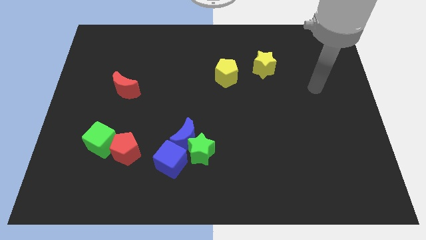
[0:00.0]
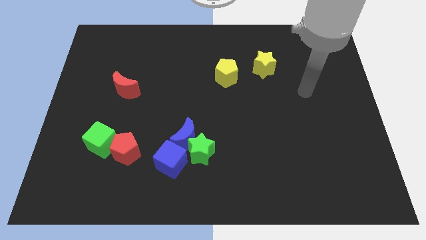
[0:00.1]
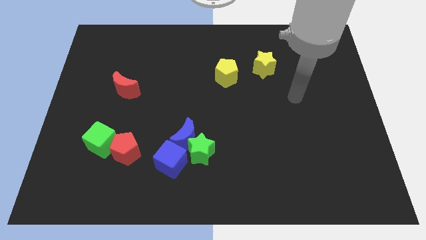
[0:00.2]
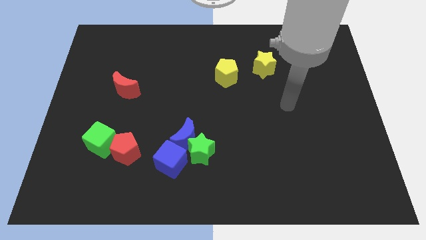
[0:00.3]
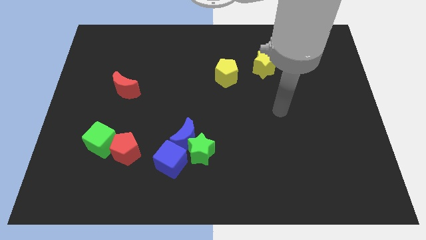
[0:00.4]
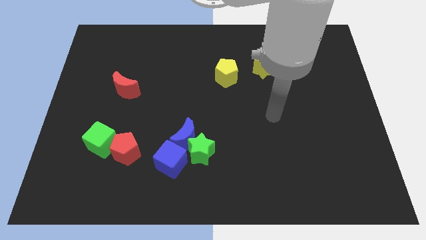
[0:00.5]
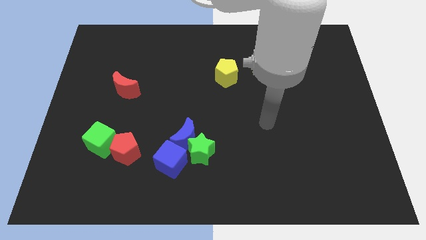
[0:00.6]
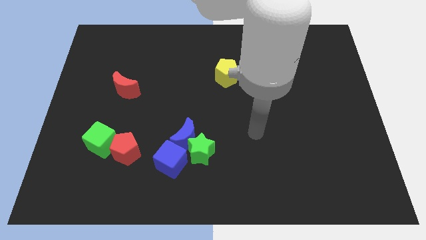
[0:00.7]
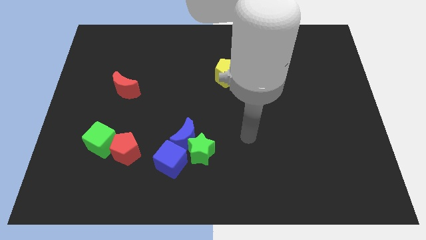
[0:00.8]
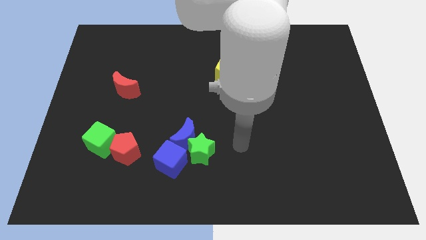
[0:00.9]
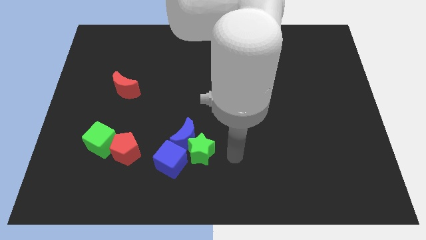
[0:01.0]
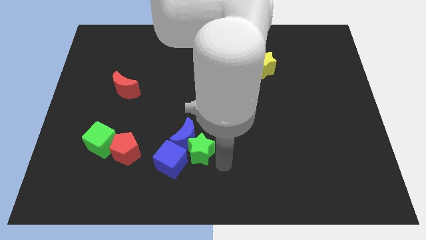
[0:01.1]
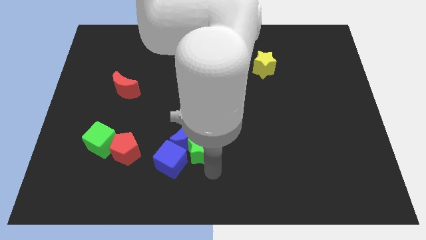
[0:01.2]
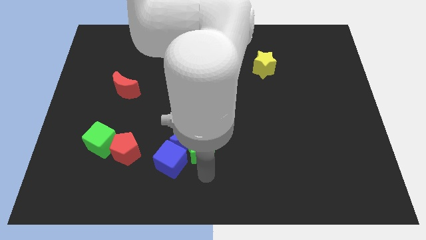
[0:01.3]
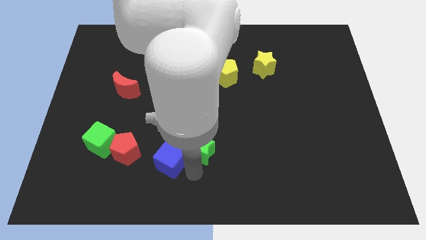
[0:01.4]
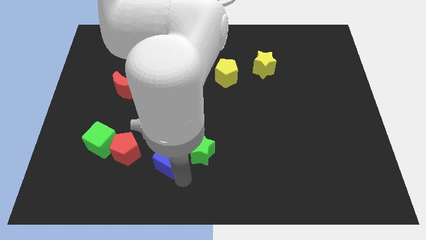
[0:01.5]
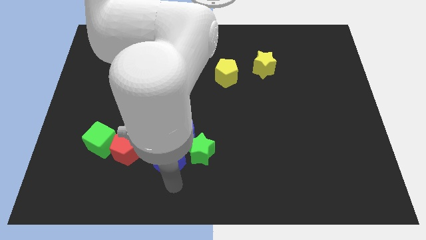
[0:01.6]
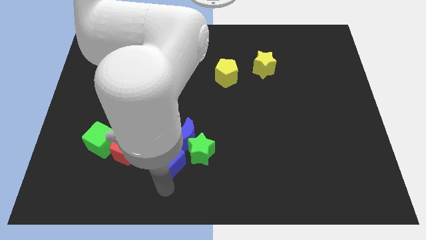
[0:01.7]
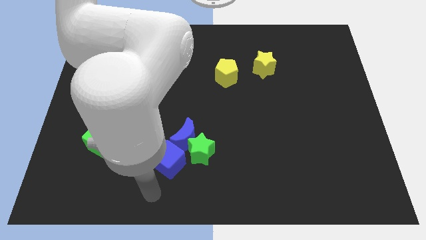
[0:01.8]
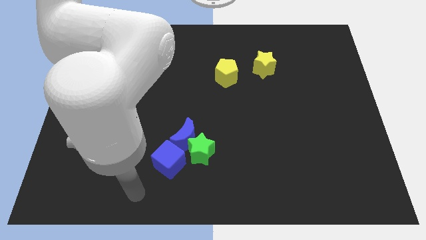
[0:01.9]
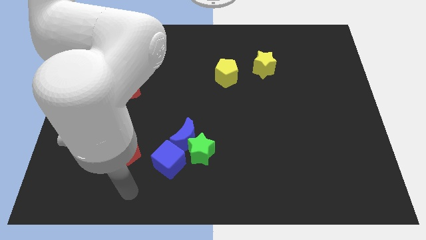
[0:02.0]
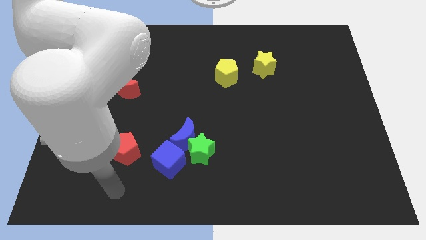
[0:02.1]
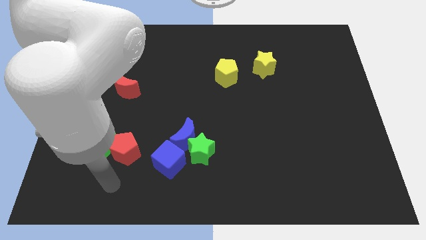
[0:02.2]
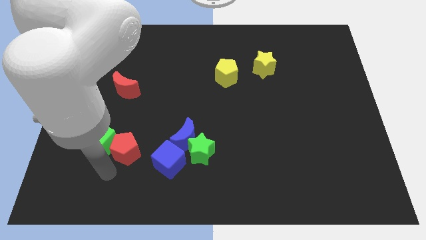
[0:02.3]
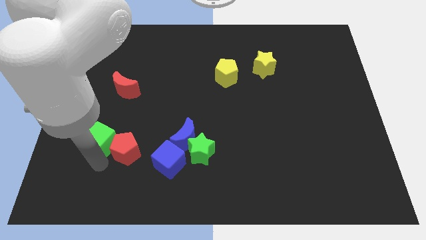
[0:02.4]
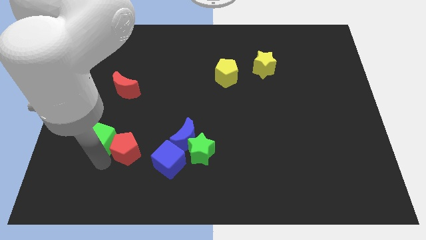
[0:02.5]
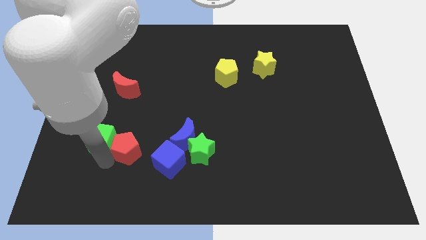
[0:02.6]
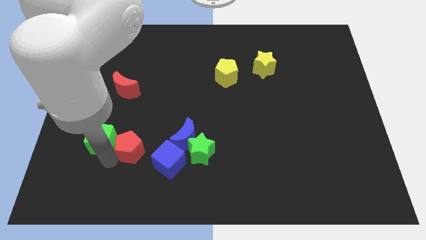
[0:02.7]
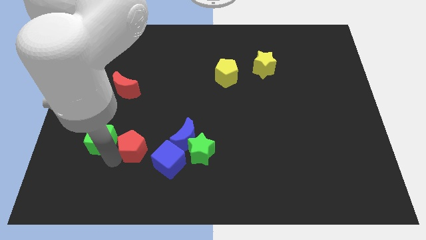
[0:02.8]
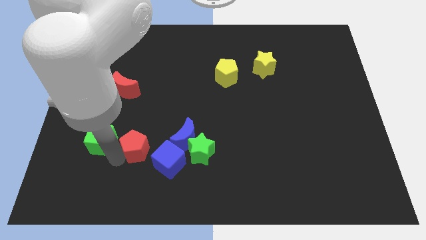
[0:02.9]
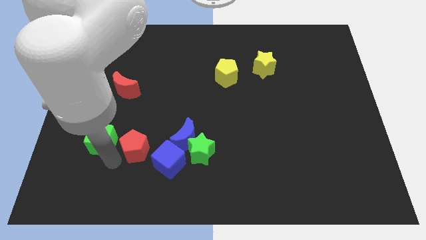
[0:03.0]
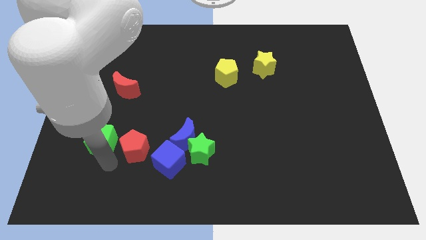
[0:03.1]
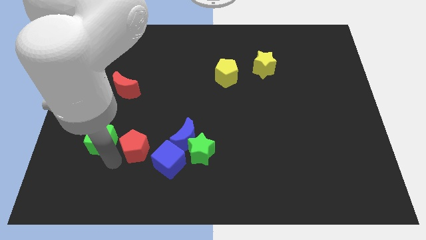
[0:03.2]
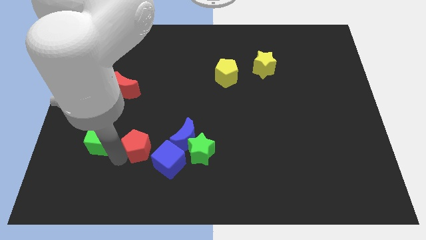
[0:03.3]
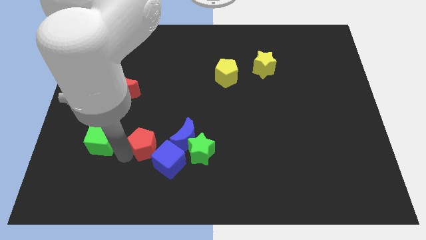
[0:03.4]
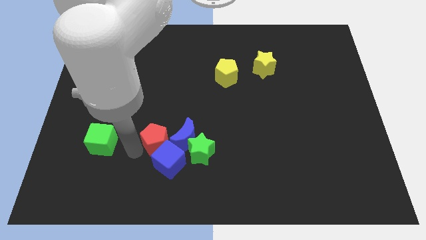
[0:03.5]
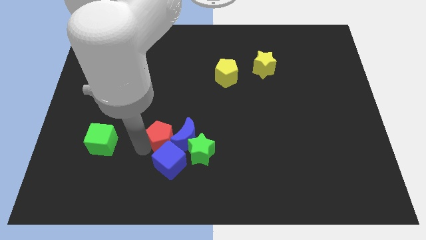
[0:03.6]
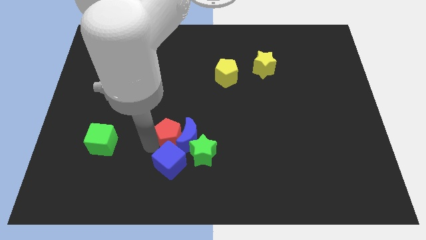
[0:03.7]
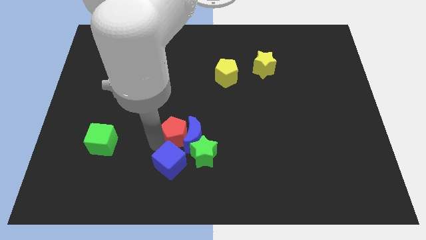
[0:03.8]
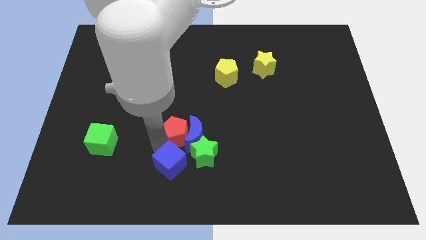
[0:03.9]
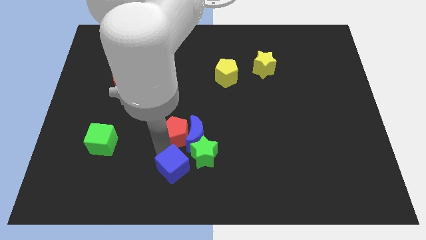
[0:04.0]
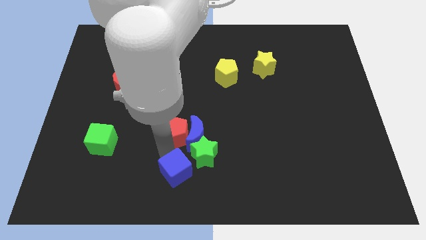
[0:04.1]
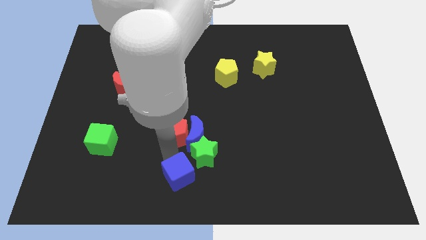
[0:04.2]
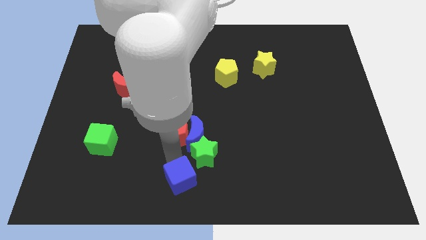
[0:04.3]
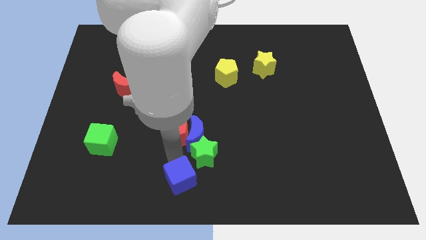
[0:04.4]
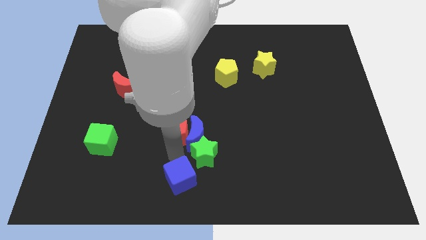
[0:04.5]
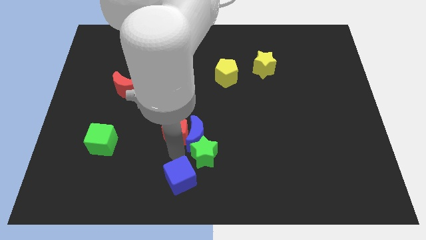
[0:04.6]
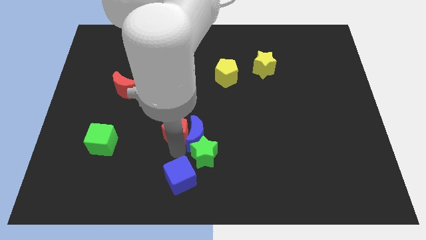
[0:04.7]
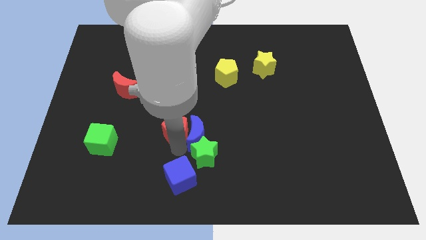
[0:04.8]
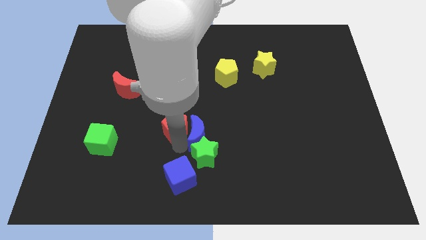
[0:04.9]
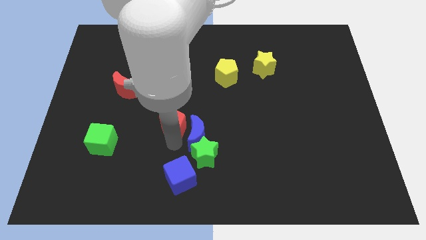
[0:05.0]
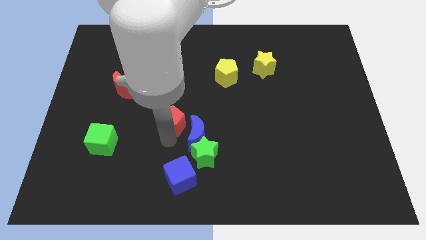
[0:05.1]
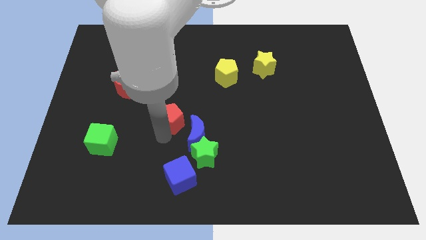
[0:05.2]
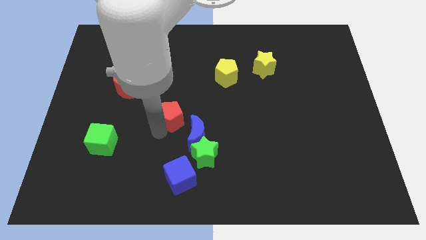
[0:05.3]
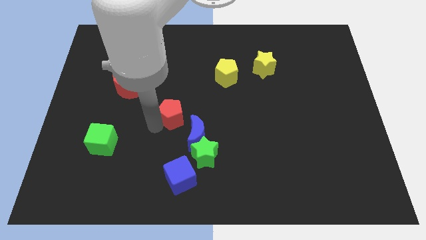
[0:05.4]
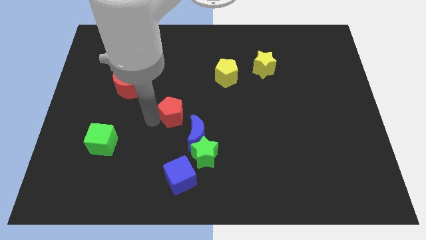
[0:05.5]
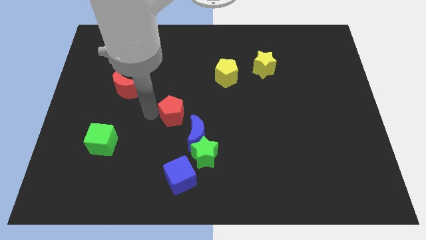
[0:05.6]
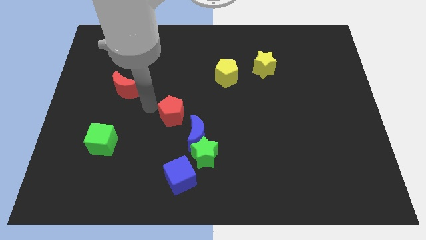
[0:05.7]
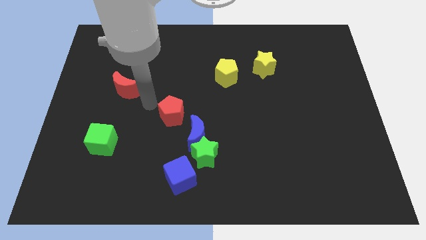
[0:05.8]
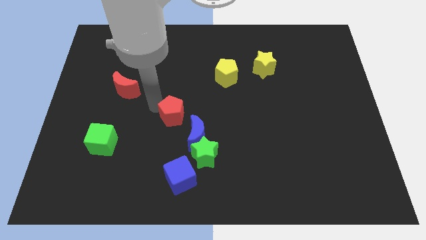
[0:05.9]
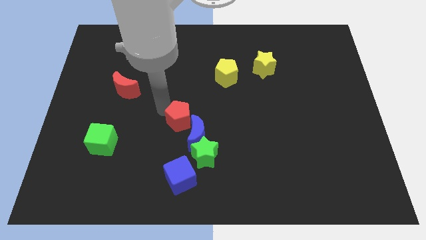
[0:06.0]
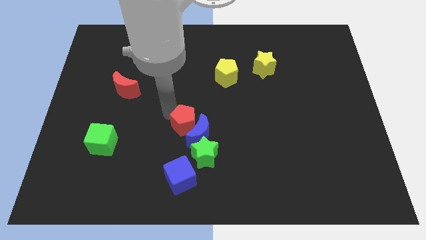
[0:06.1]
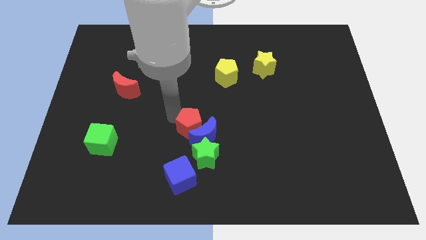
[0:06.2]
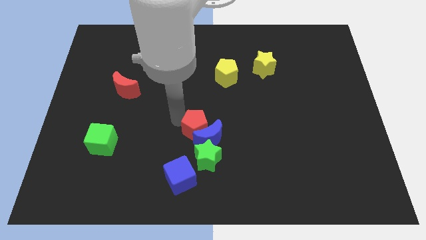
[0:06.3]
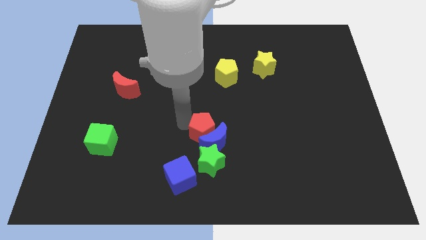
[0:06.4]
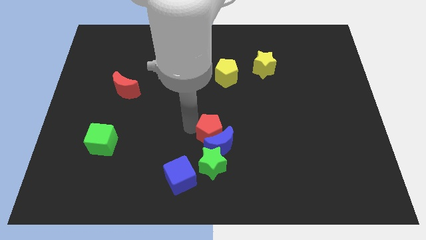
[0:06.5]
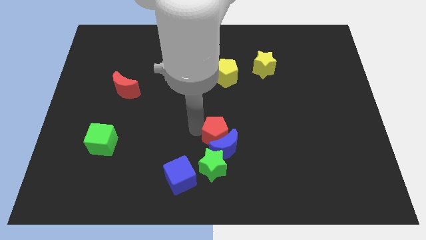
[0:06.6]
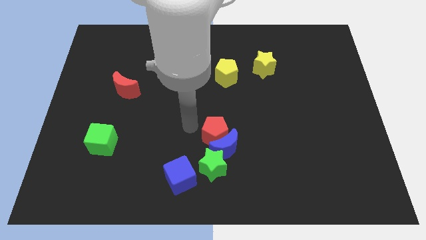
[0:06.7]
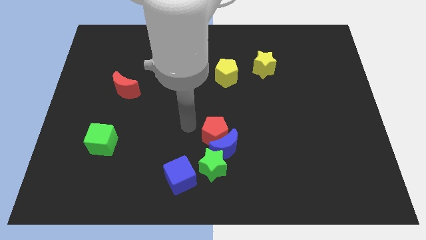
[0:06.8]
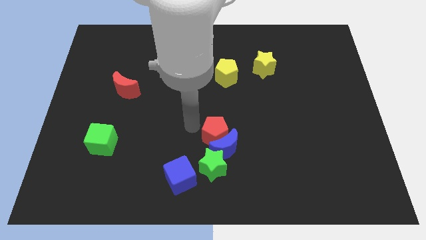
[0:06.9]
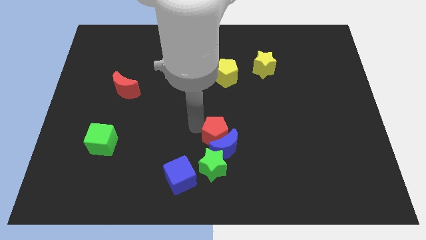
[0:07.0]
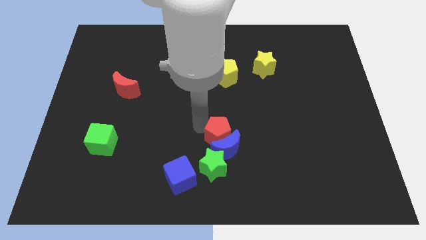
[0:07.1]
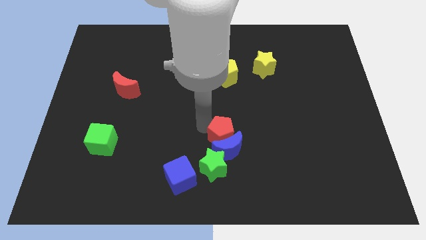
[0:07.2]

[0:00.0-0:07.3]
slide the red pentagon to the right

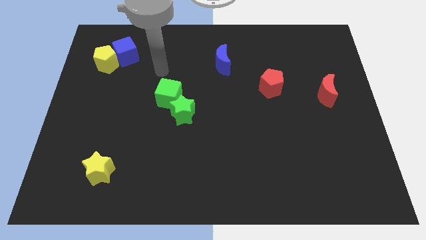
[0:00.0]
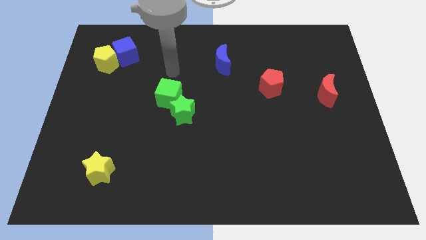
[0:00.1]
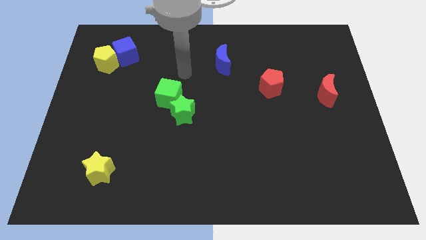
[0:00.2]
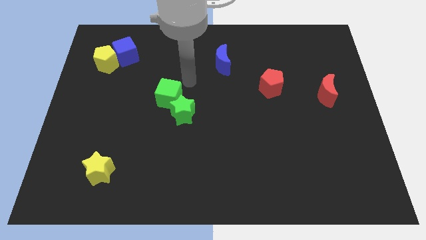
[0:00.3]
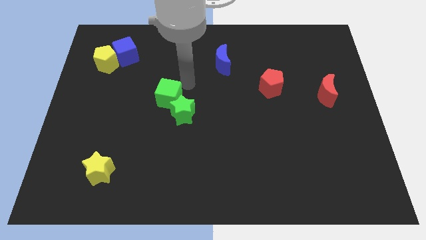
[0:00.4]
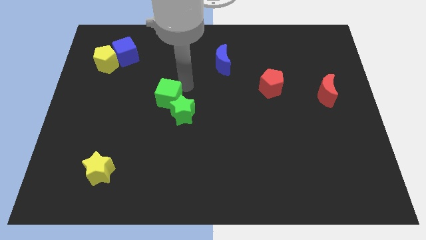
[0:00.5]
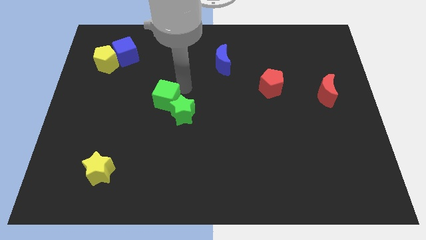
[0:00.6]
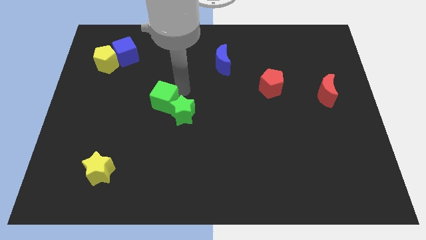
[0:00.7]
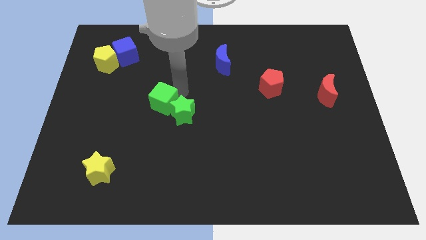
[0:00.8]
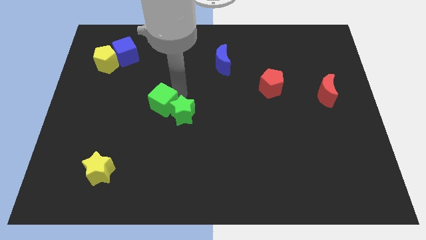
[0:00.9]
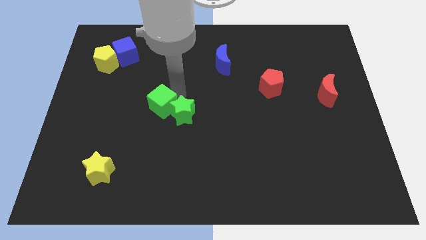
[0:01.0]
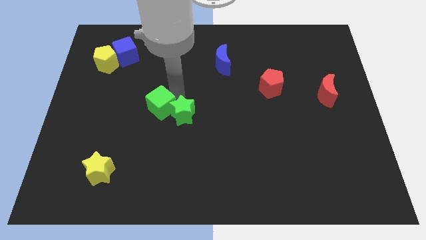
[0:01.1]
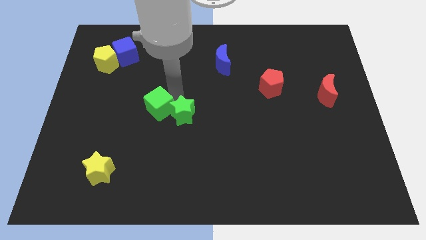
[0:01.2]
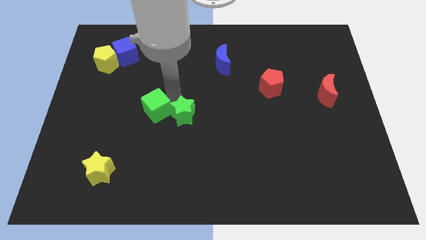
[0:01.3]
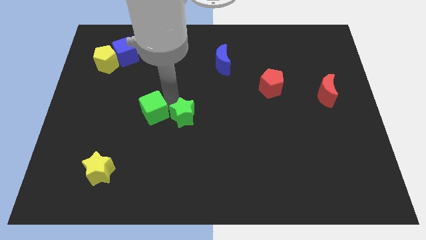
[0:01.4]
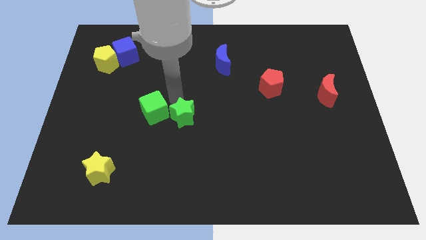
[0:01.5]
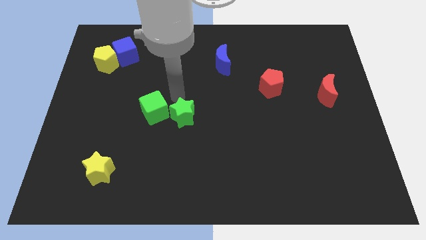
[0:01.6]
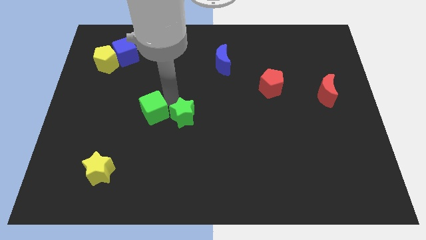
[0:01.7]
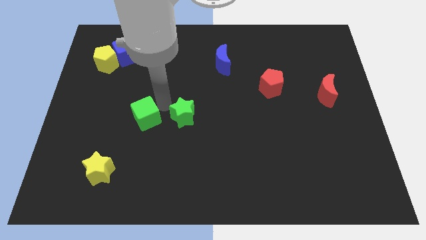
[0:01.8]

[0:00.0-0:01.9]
slide the green cube a little bit downwards and then to the left
